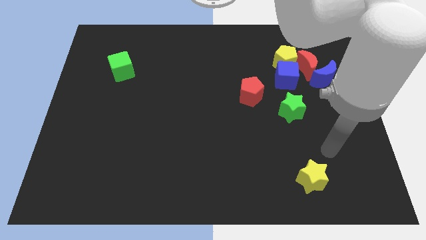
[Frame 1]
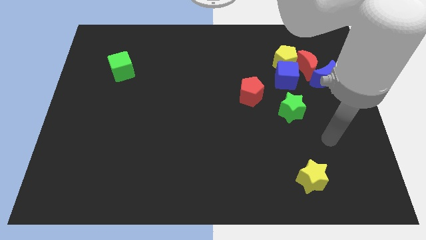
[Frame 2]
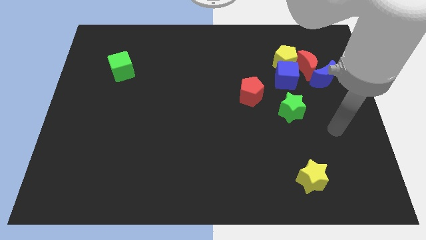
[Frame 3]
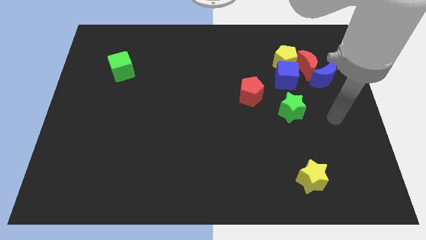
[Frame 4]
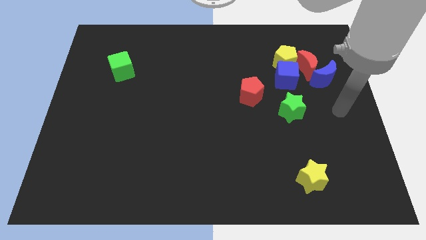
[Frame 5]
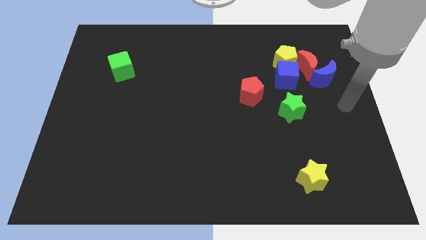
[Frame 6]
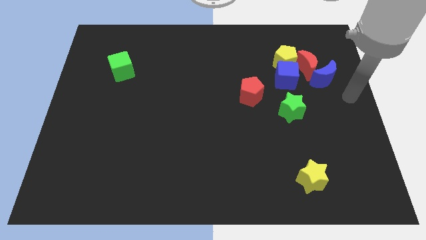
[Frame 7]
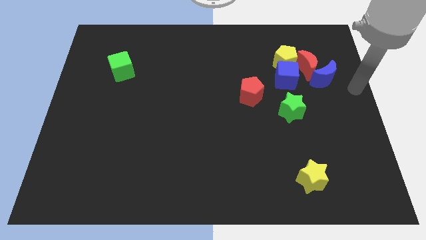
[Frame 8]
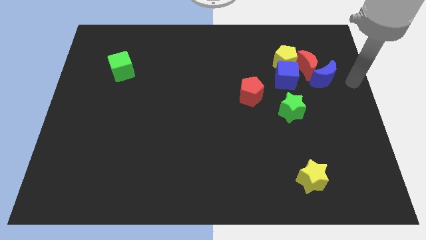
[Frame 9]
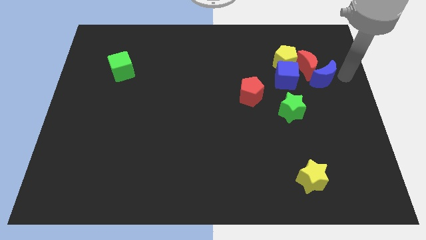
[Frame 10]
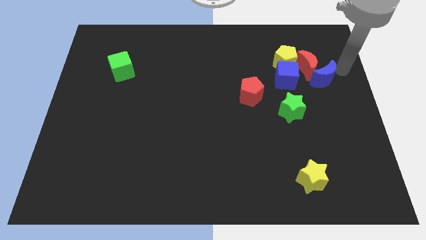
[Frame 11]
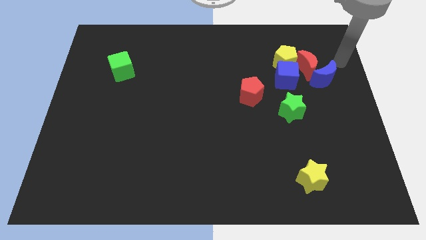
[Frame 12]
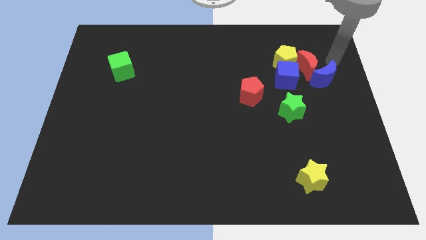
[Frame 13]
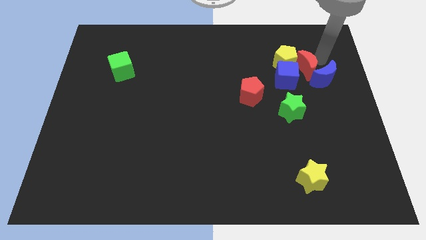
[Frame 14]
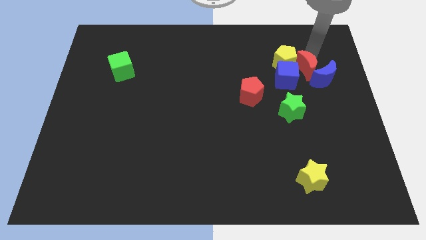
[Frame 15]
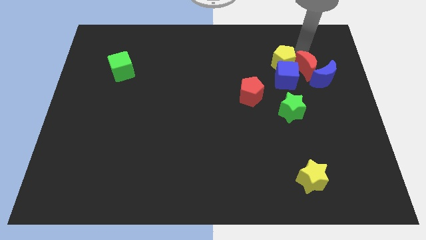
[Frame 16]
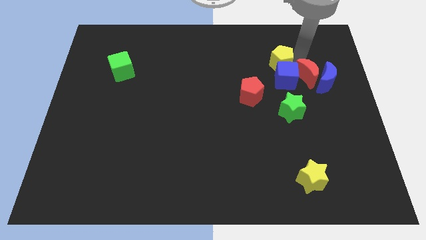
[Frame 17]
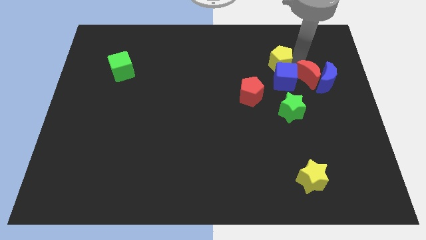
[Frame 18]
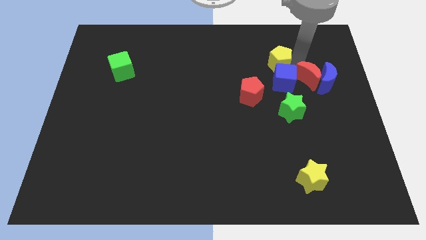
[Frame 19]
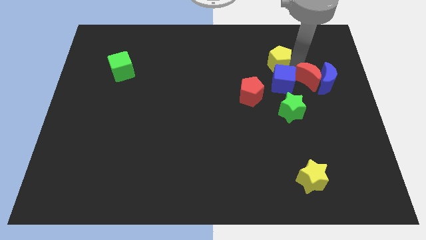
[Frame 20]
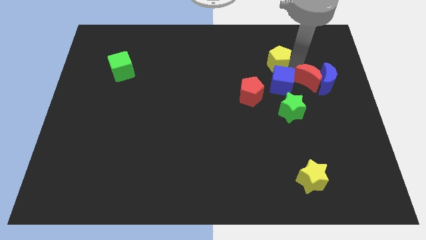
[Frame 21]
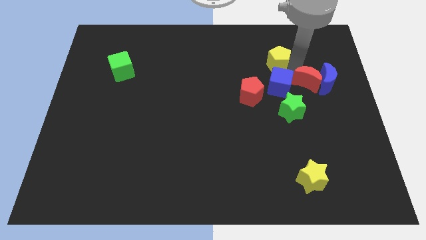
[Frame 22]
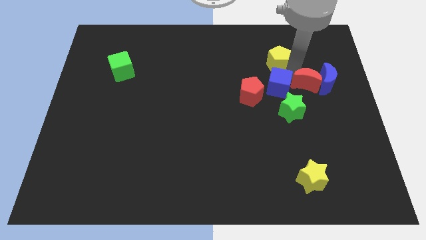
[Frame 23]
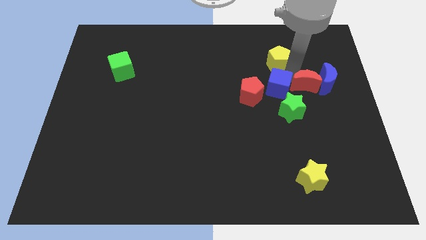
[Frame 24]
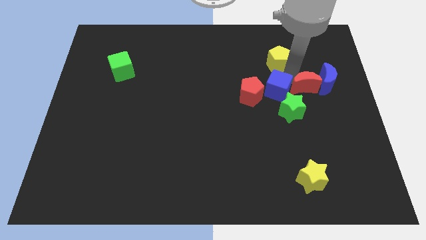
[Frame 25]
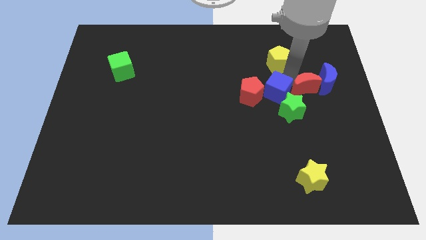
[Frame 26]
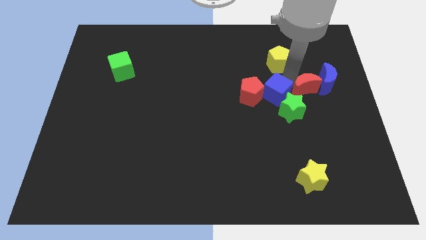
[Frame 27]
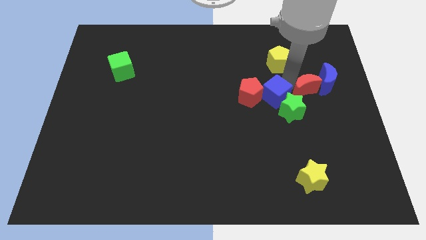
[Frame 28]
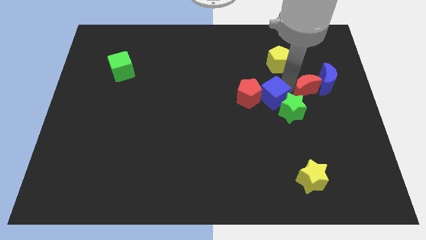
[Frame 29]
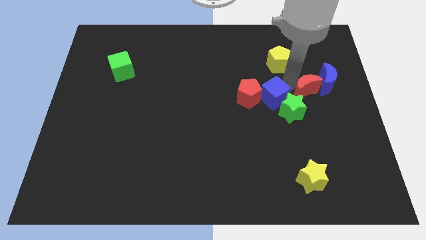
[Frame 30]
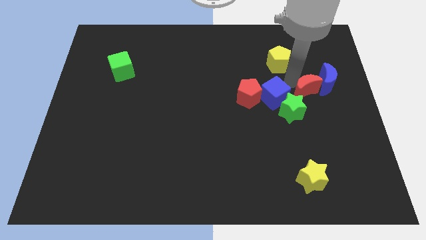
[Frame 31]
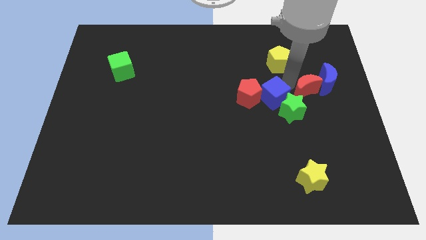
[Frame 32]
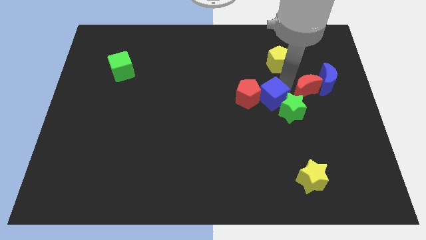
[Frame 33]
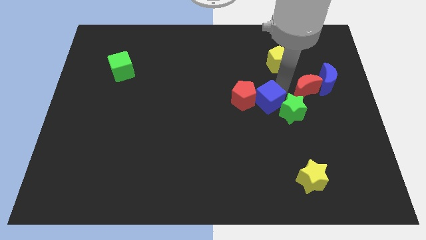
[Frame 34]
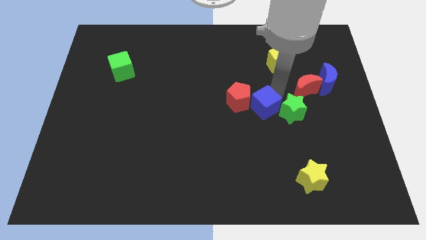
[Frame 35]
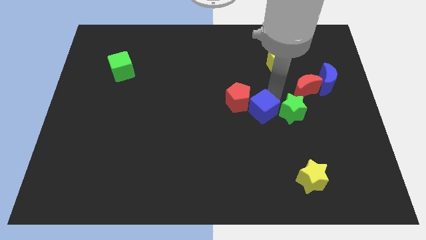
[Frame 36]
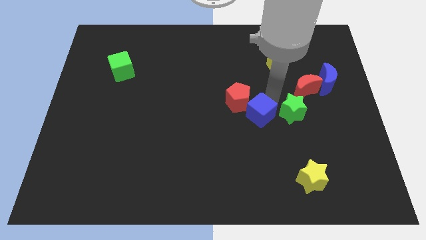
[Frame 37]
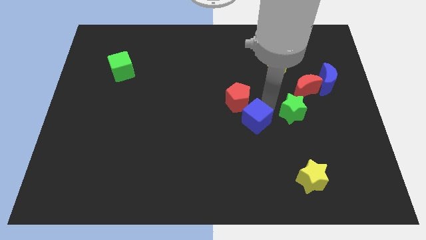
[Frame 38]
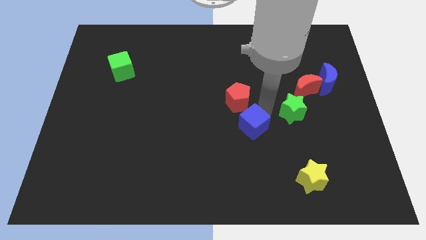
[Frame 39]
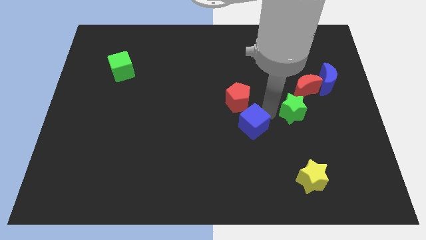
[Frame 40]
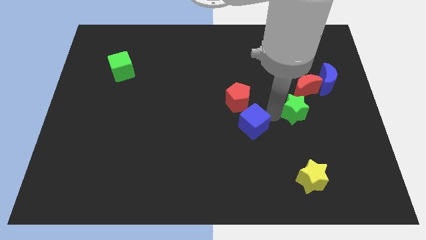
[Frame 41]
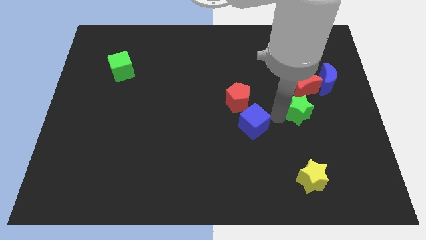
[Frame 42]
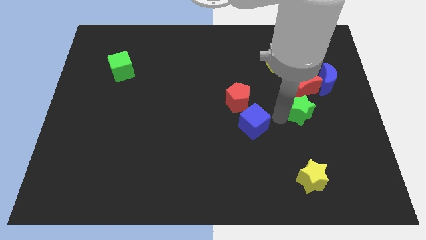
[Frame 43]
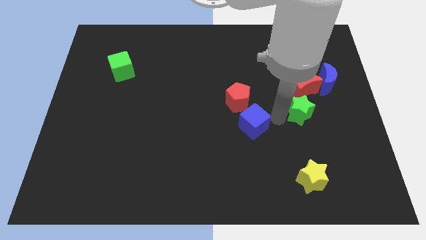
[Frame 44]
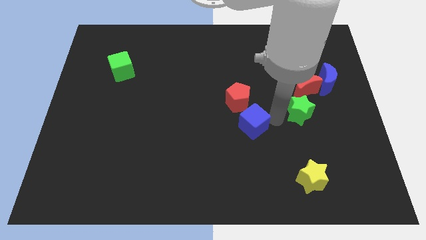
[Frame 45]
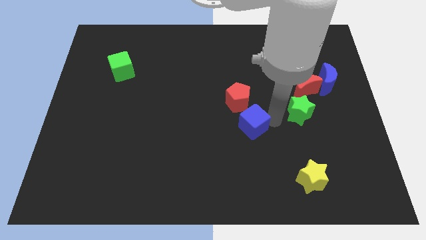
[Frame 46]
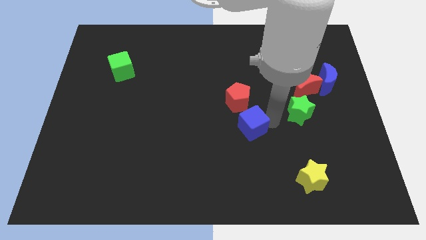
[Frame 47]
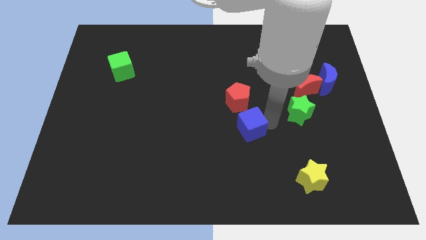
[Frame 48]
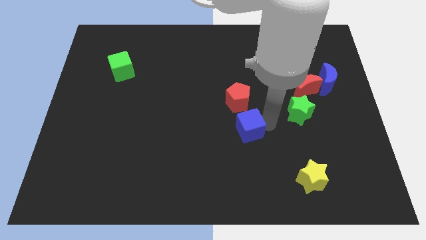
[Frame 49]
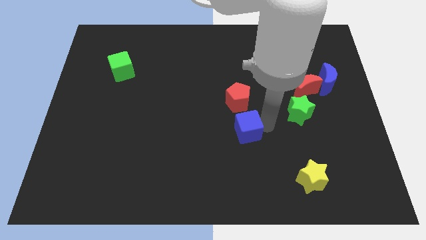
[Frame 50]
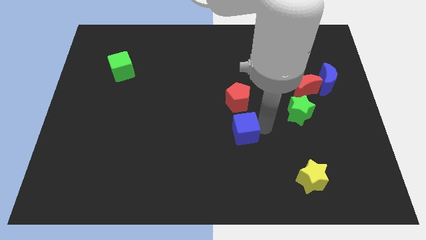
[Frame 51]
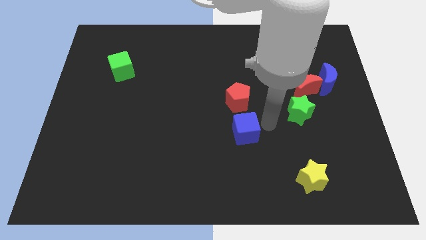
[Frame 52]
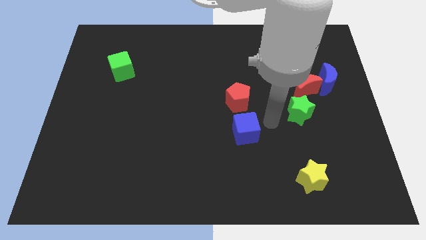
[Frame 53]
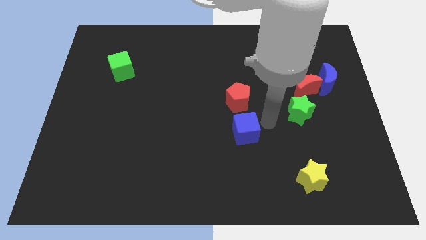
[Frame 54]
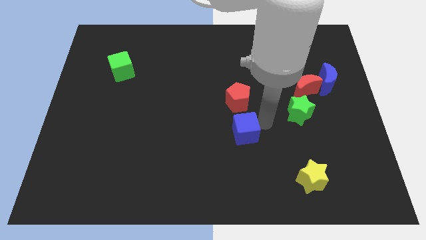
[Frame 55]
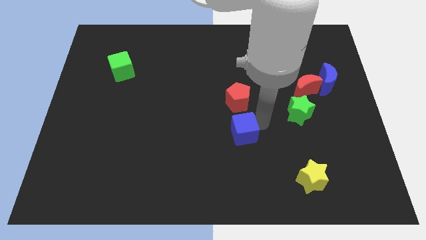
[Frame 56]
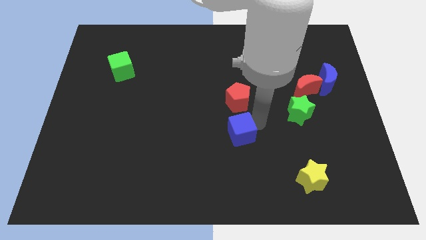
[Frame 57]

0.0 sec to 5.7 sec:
move the blue cube down and to the left diagonally

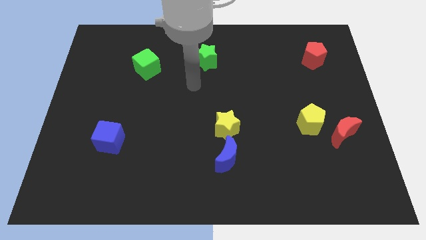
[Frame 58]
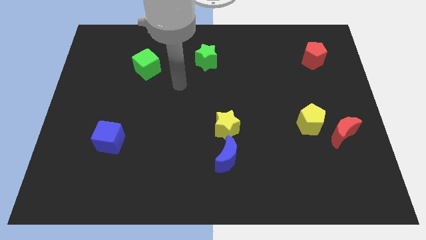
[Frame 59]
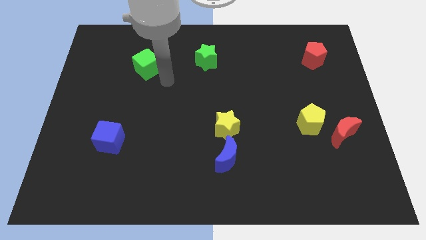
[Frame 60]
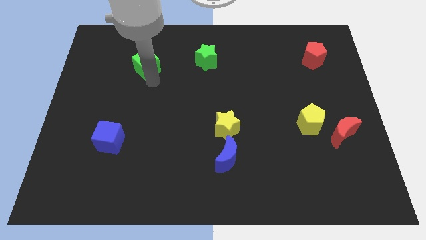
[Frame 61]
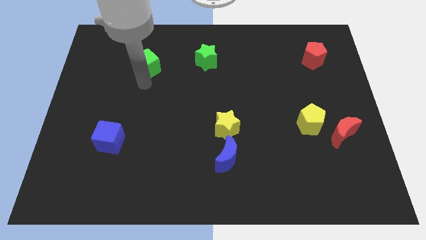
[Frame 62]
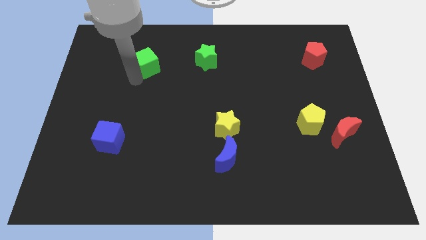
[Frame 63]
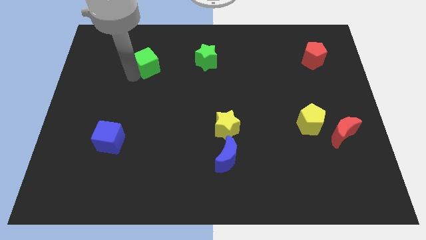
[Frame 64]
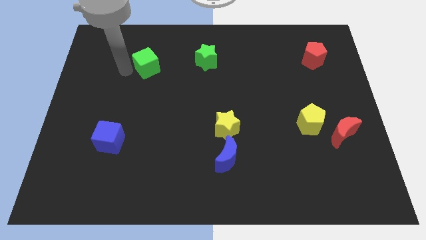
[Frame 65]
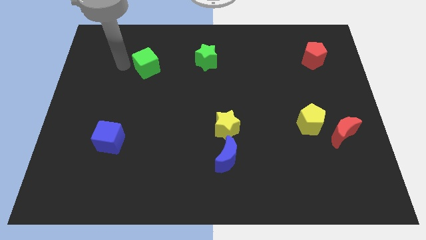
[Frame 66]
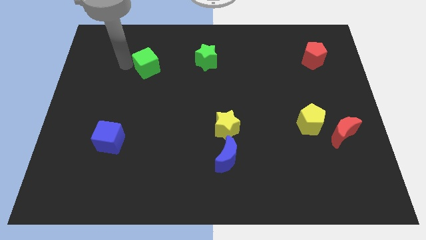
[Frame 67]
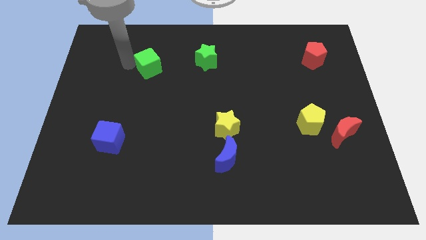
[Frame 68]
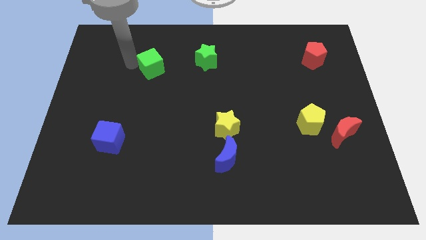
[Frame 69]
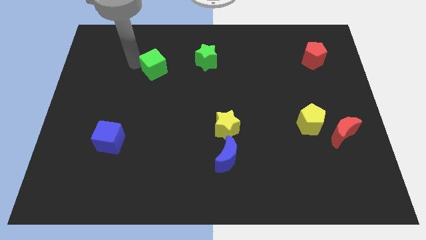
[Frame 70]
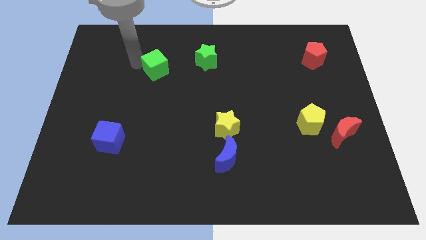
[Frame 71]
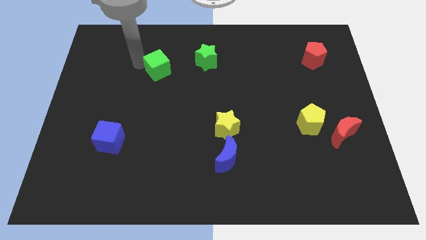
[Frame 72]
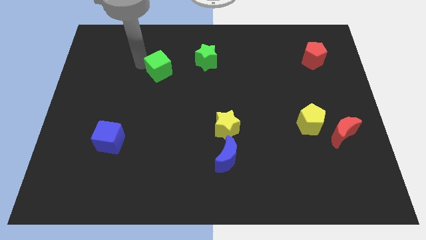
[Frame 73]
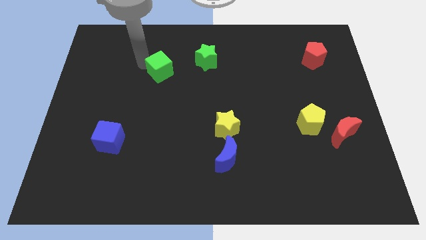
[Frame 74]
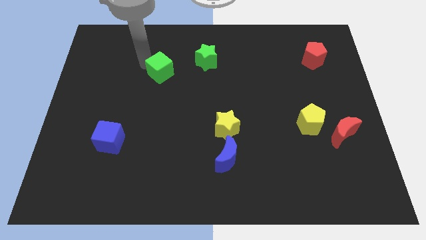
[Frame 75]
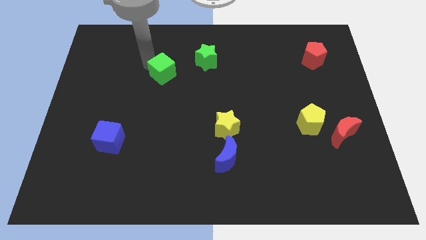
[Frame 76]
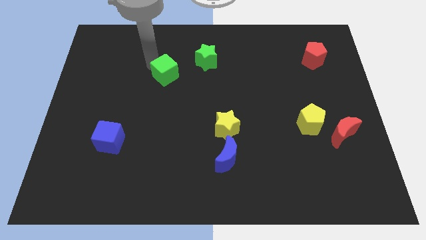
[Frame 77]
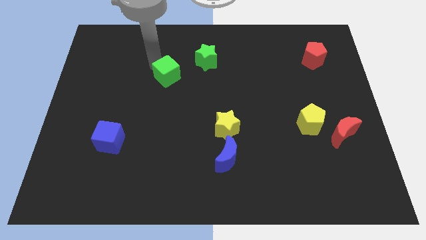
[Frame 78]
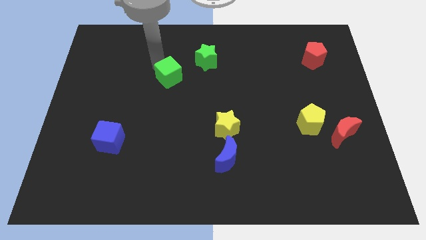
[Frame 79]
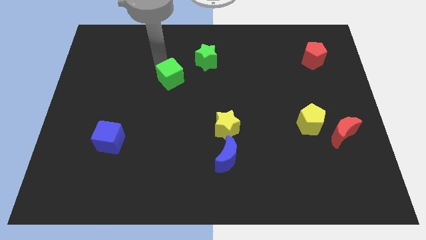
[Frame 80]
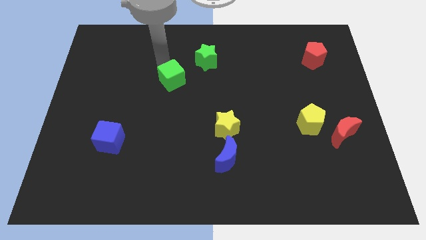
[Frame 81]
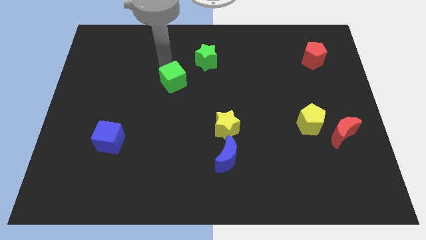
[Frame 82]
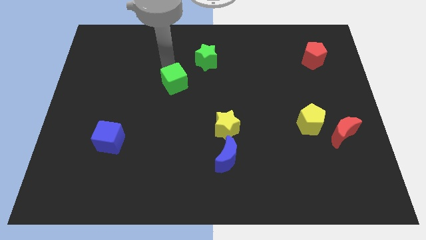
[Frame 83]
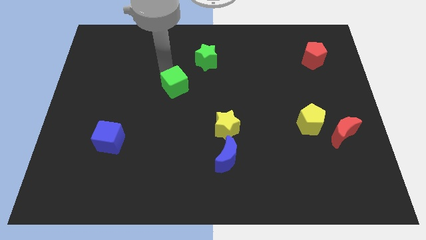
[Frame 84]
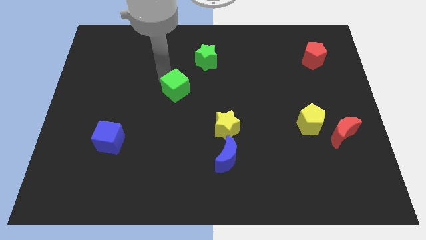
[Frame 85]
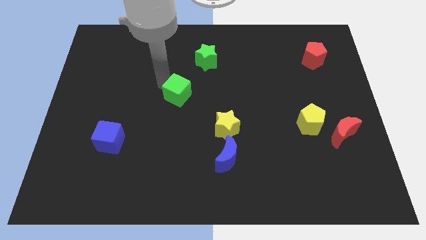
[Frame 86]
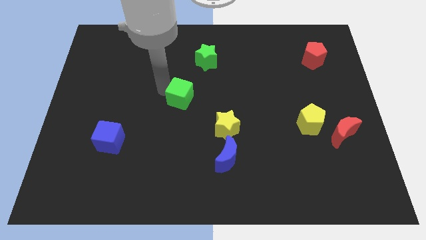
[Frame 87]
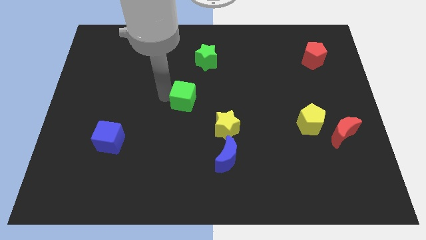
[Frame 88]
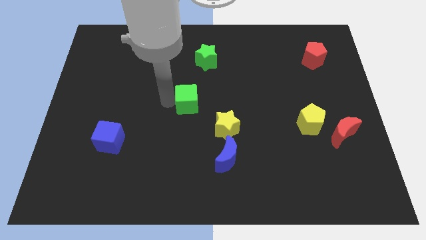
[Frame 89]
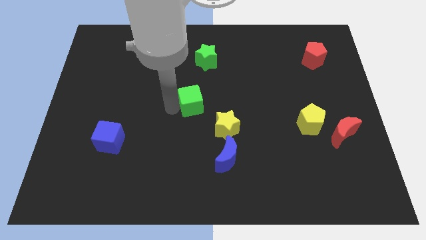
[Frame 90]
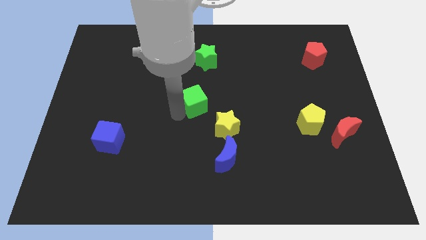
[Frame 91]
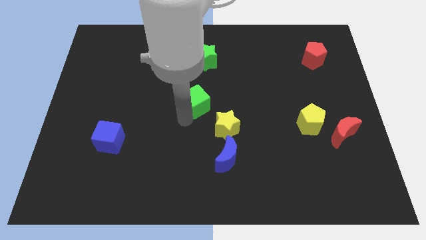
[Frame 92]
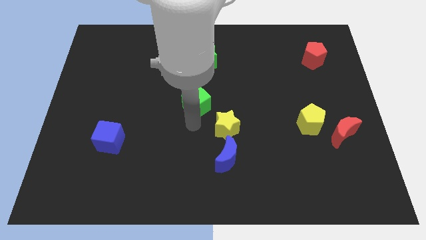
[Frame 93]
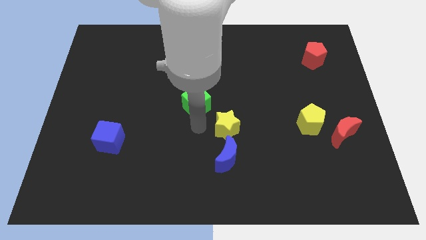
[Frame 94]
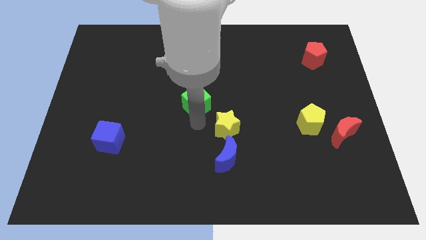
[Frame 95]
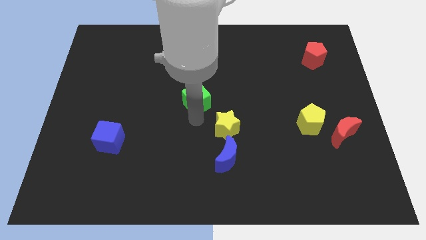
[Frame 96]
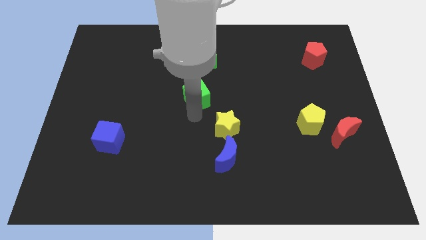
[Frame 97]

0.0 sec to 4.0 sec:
slightly slide the green cube right
